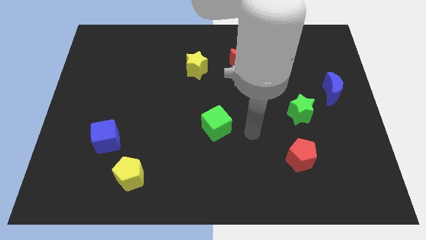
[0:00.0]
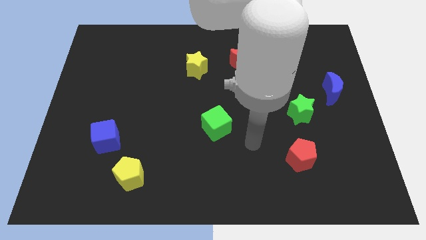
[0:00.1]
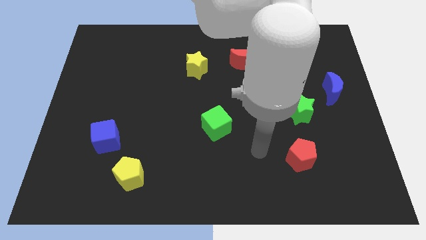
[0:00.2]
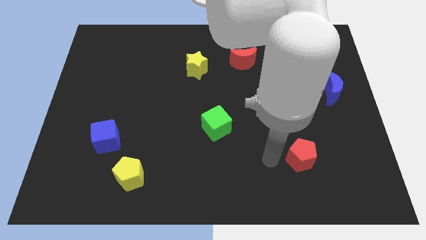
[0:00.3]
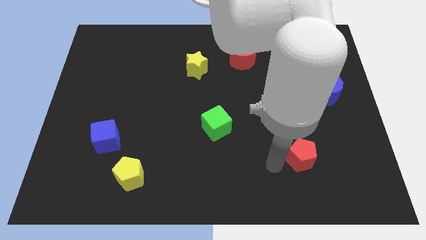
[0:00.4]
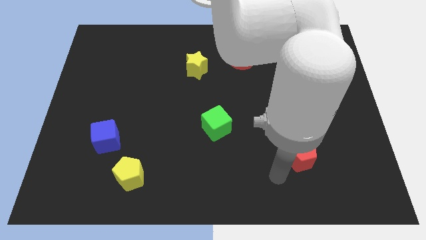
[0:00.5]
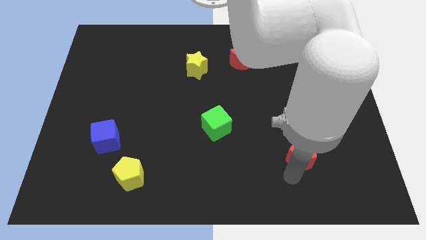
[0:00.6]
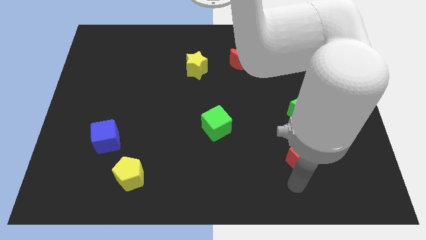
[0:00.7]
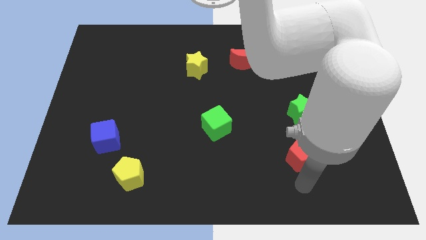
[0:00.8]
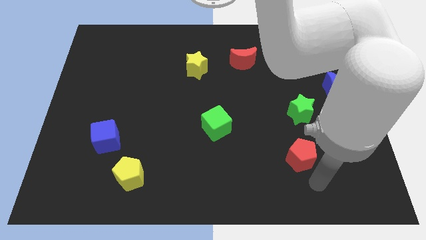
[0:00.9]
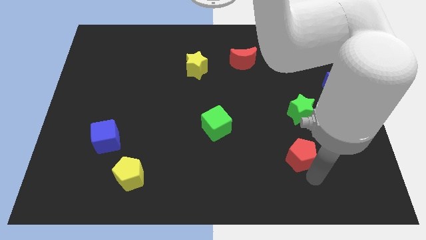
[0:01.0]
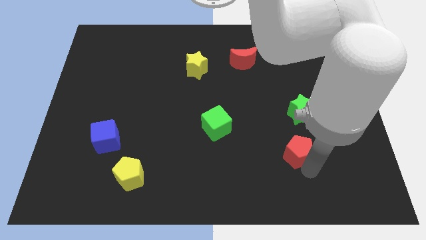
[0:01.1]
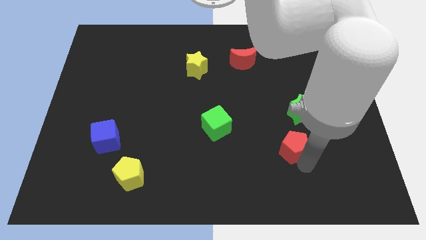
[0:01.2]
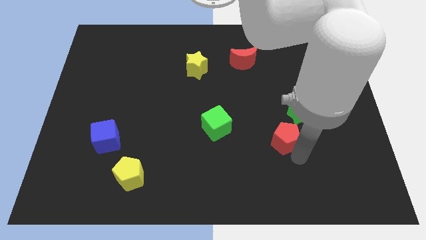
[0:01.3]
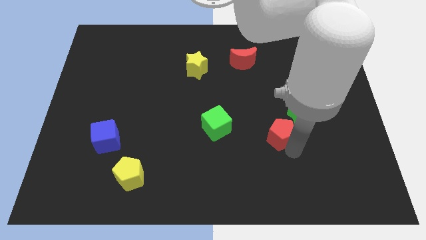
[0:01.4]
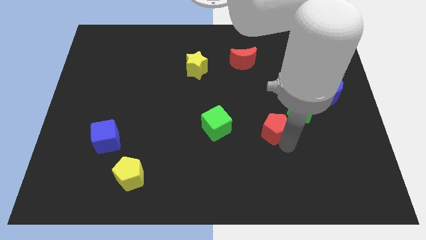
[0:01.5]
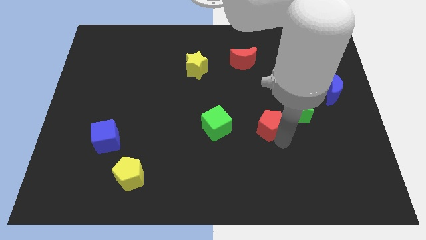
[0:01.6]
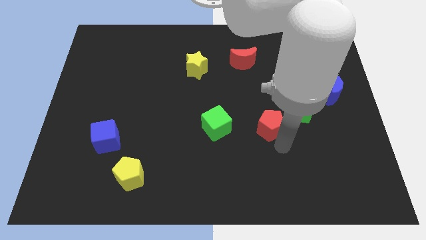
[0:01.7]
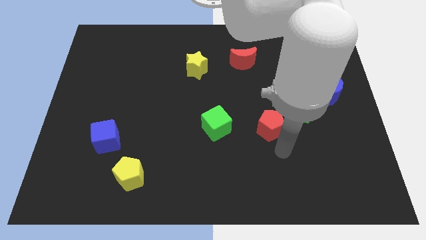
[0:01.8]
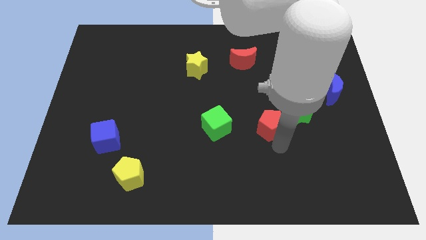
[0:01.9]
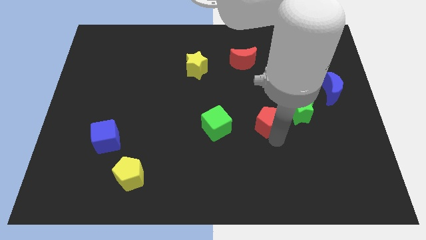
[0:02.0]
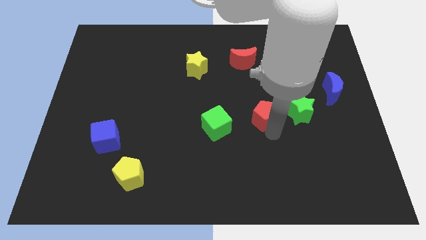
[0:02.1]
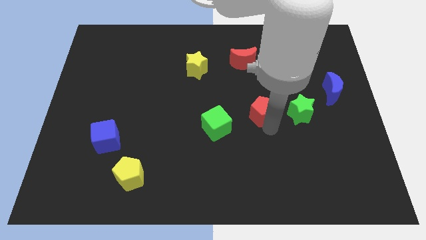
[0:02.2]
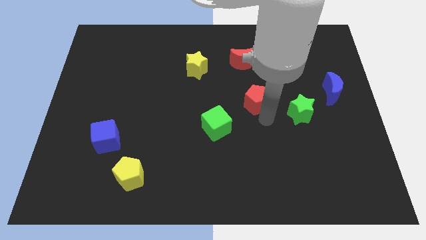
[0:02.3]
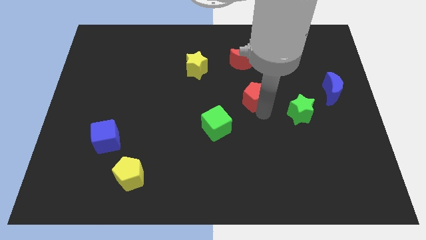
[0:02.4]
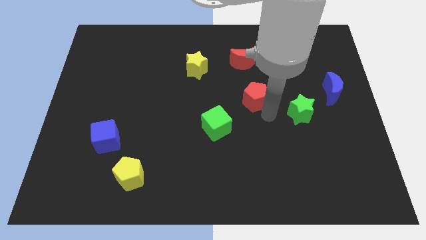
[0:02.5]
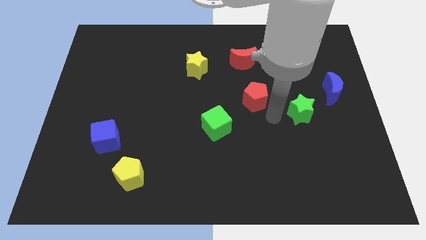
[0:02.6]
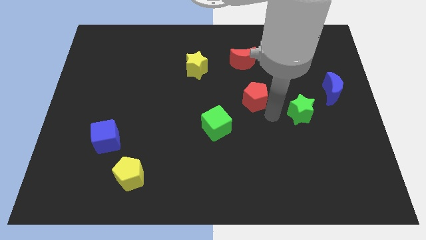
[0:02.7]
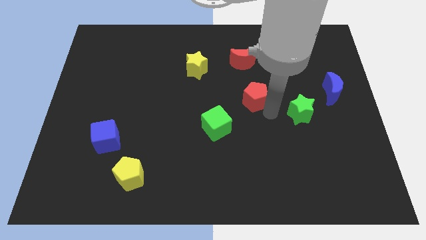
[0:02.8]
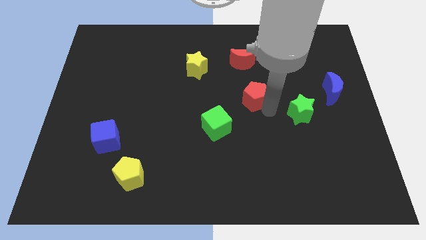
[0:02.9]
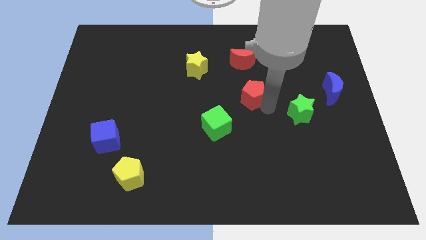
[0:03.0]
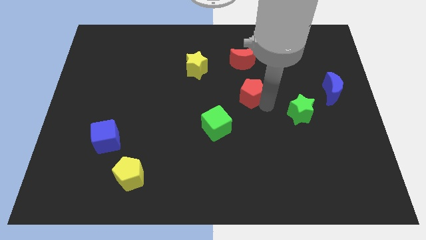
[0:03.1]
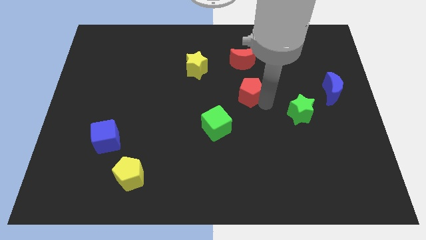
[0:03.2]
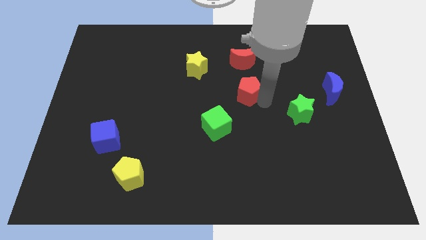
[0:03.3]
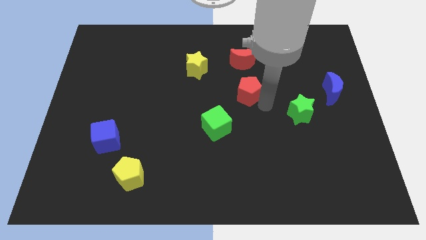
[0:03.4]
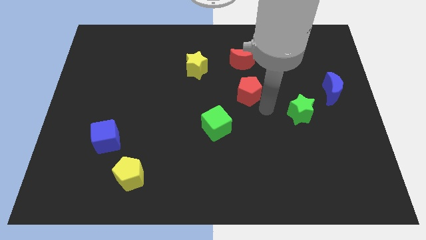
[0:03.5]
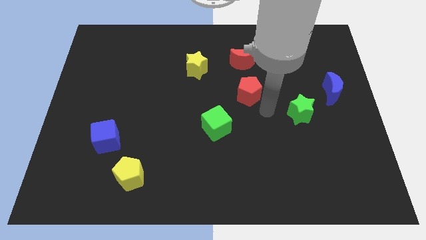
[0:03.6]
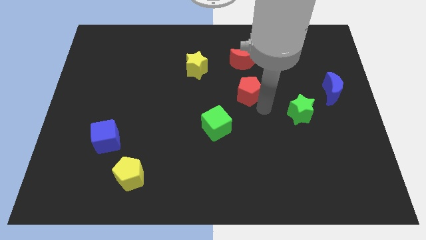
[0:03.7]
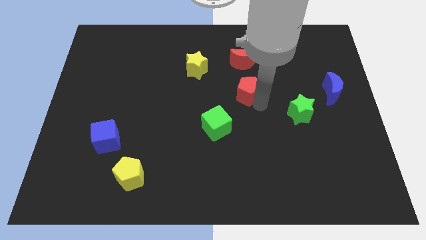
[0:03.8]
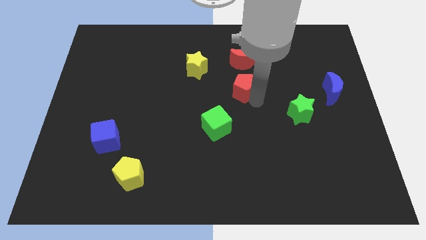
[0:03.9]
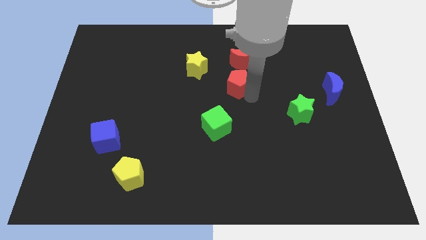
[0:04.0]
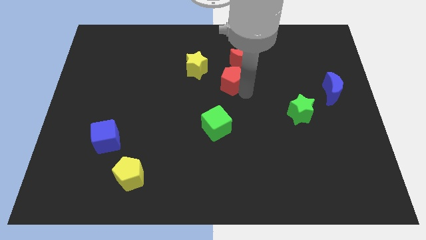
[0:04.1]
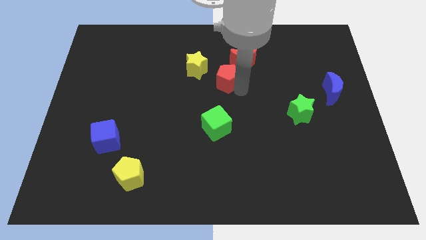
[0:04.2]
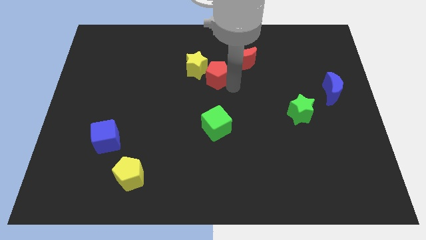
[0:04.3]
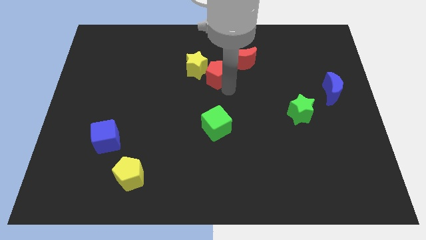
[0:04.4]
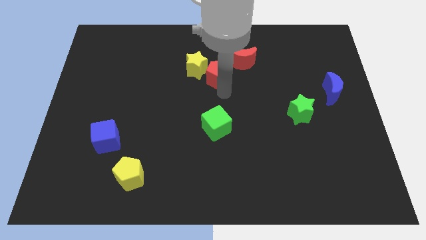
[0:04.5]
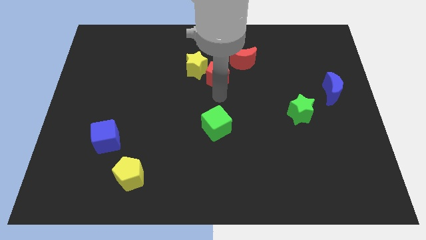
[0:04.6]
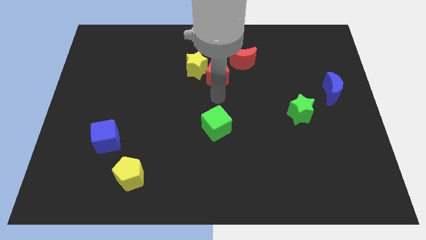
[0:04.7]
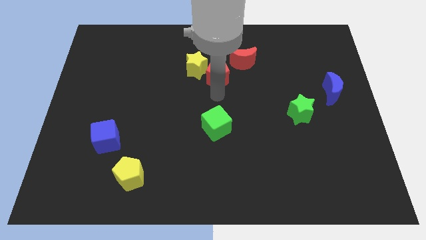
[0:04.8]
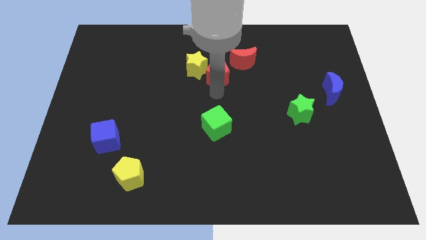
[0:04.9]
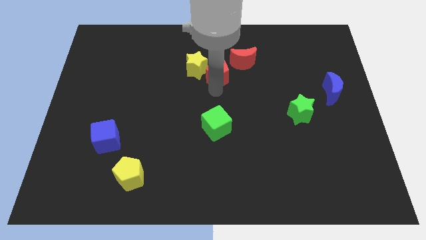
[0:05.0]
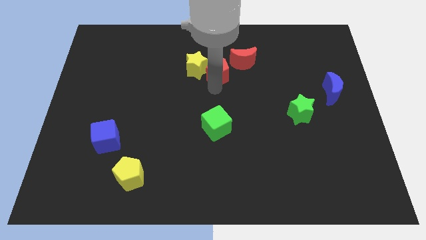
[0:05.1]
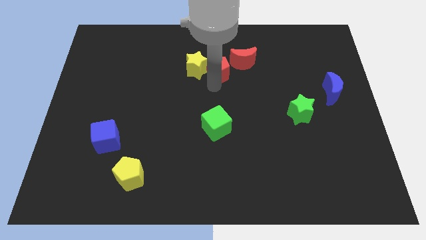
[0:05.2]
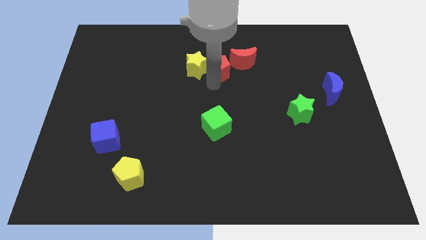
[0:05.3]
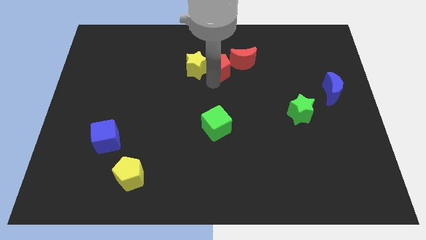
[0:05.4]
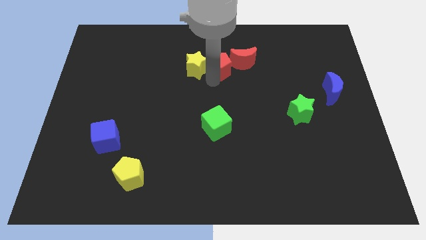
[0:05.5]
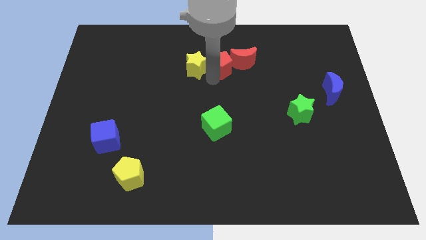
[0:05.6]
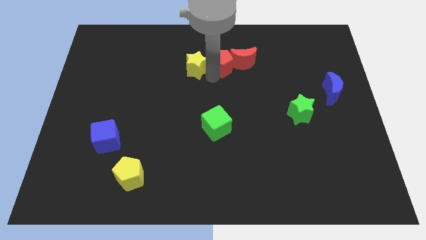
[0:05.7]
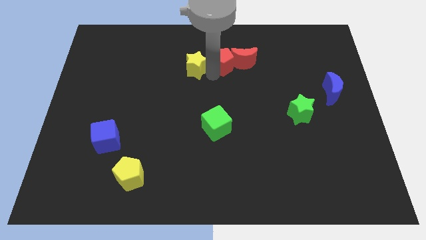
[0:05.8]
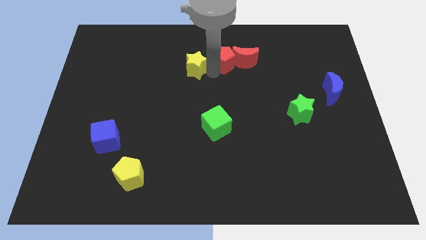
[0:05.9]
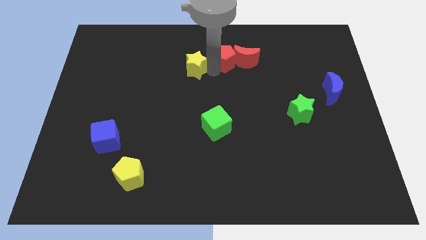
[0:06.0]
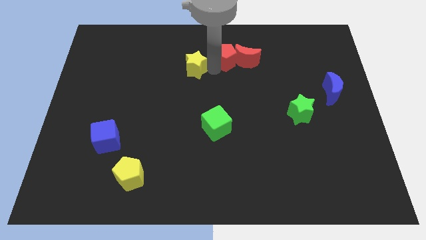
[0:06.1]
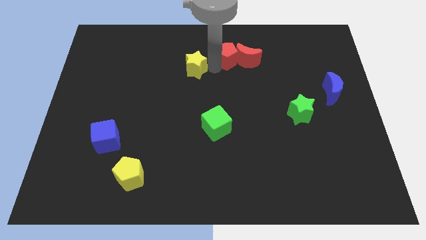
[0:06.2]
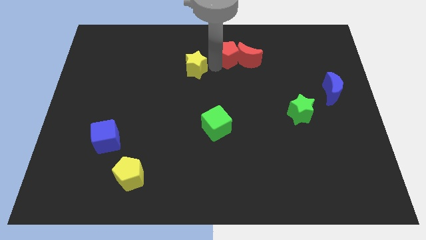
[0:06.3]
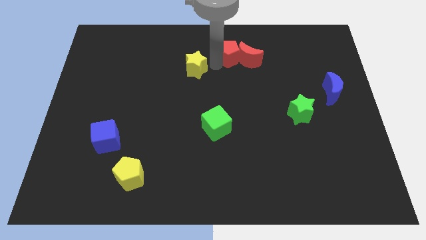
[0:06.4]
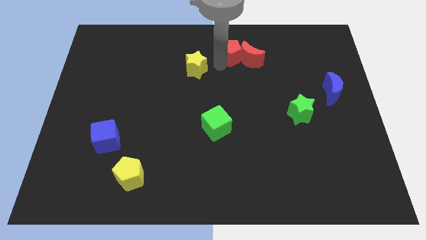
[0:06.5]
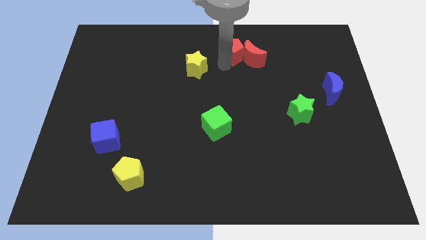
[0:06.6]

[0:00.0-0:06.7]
push the red pentagon to the top

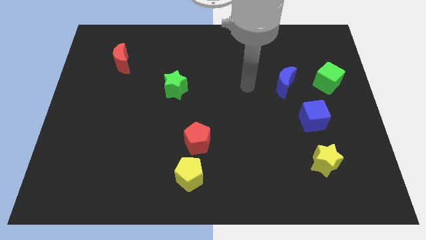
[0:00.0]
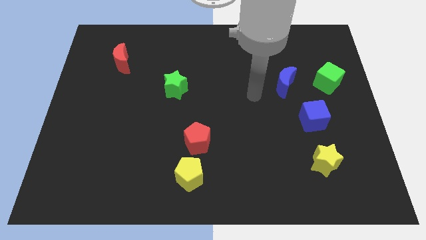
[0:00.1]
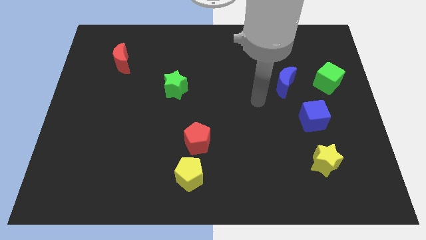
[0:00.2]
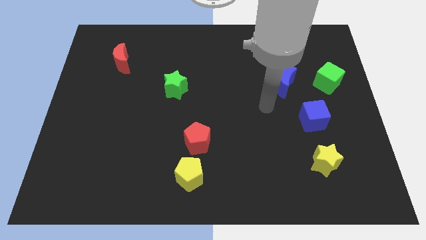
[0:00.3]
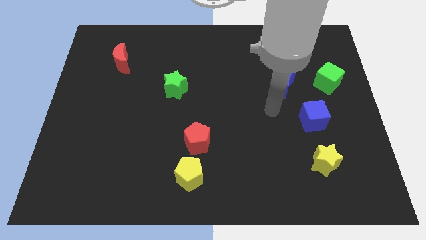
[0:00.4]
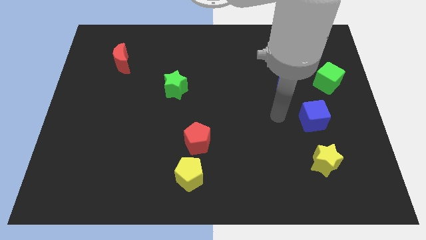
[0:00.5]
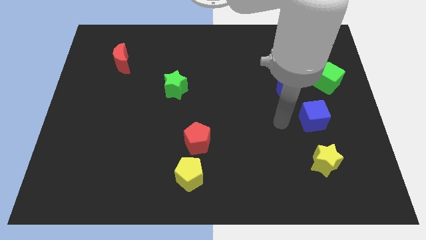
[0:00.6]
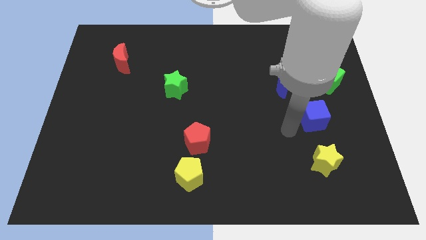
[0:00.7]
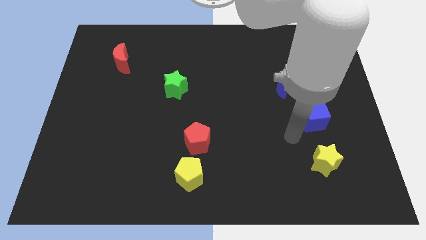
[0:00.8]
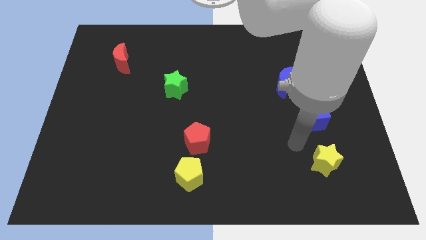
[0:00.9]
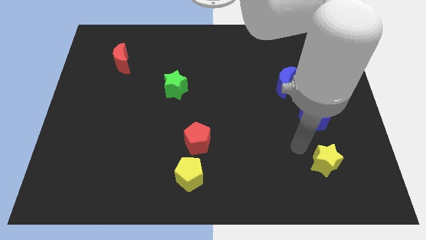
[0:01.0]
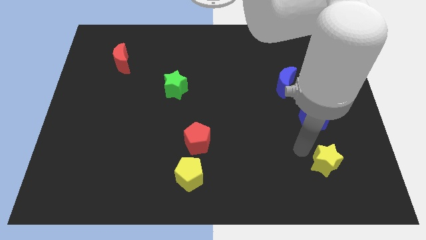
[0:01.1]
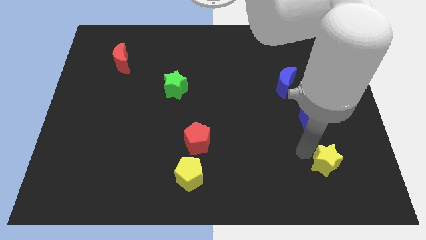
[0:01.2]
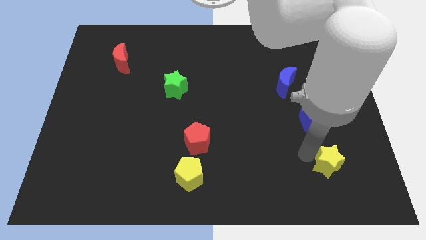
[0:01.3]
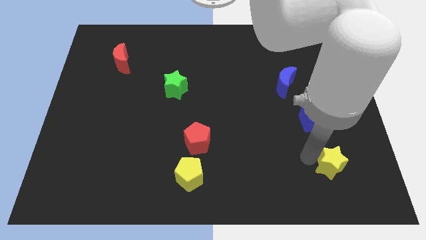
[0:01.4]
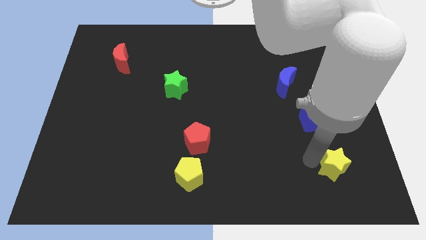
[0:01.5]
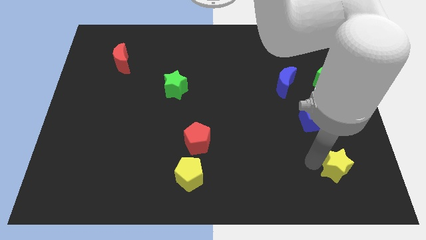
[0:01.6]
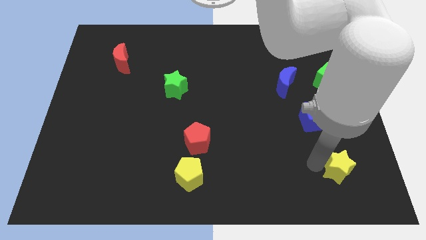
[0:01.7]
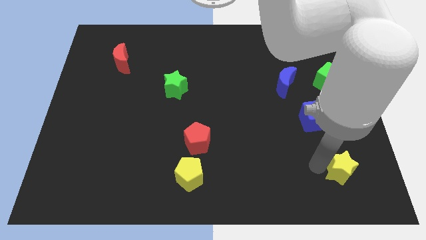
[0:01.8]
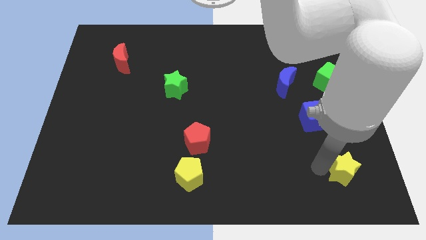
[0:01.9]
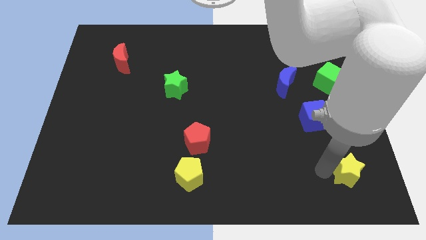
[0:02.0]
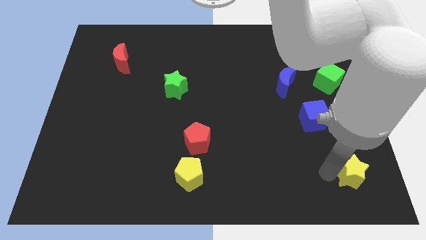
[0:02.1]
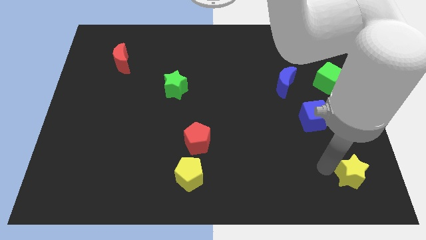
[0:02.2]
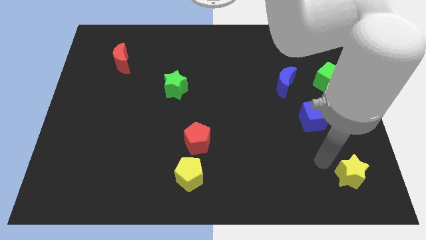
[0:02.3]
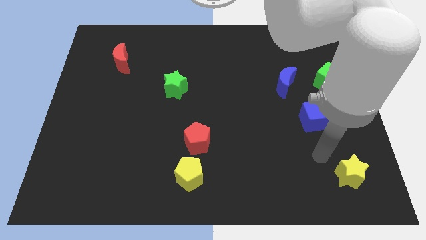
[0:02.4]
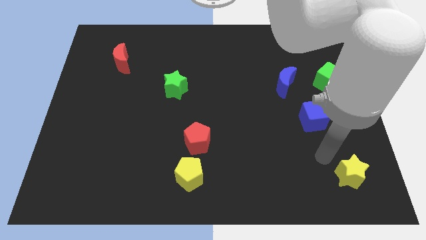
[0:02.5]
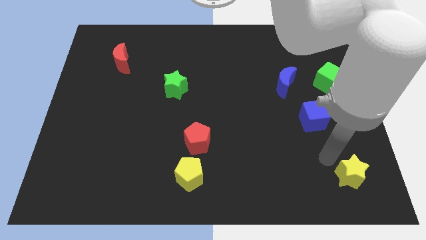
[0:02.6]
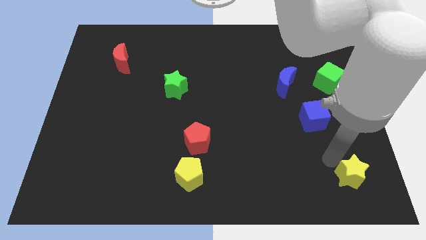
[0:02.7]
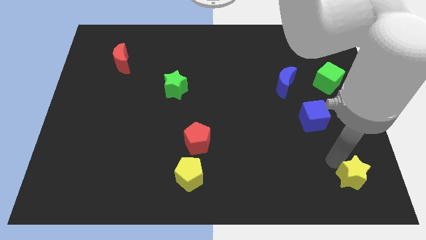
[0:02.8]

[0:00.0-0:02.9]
slide the yellow star to the bottom right corner
